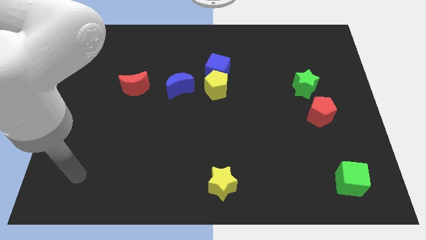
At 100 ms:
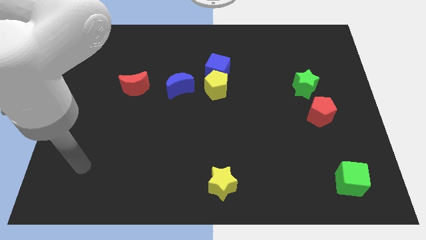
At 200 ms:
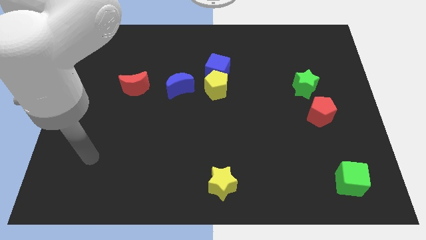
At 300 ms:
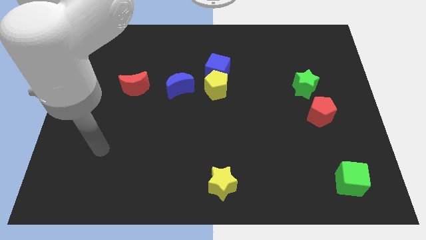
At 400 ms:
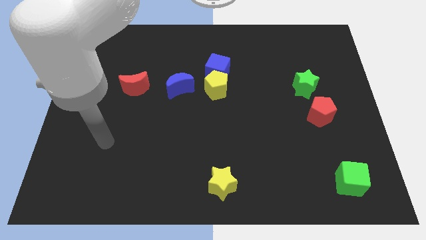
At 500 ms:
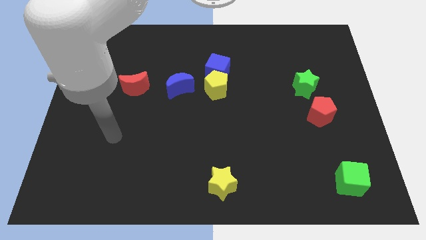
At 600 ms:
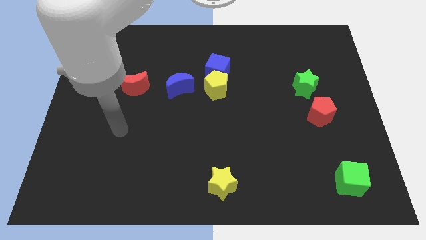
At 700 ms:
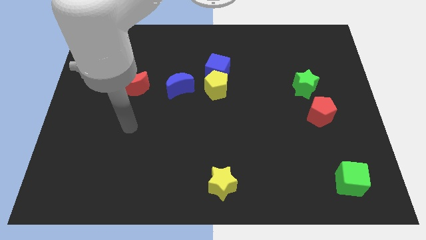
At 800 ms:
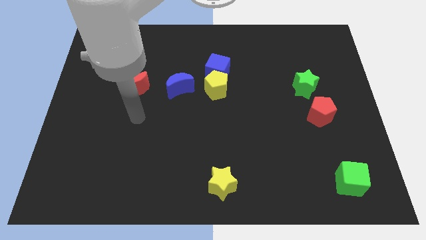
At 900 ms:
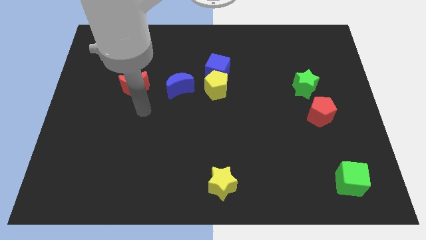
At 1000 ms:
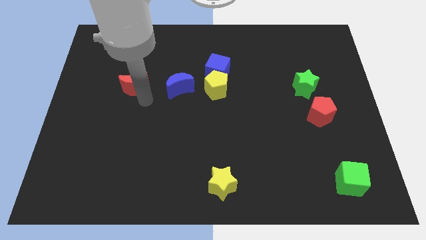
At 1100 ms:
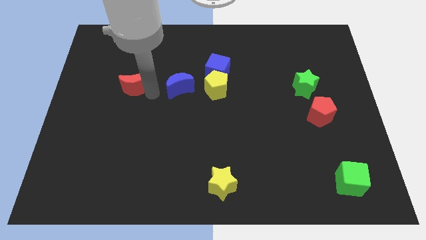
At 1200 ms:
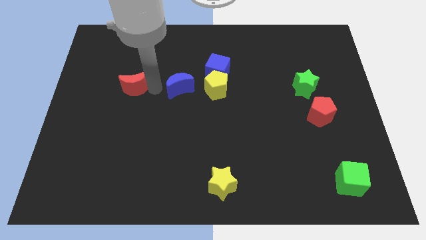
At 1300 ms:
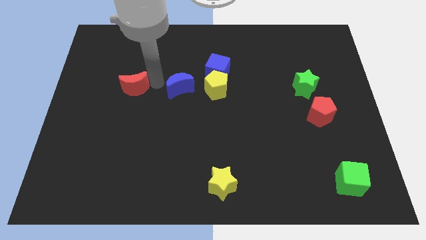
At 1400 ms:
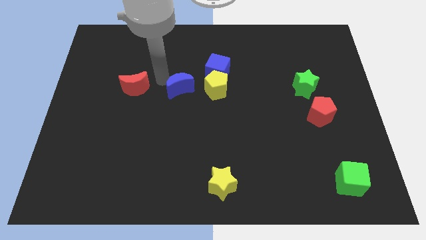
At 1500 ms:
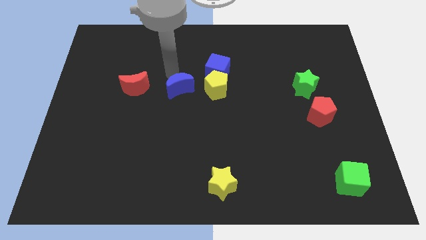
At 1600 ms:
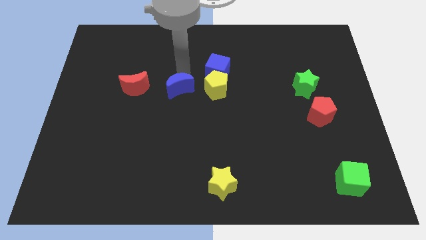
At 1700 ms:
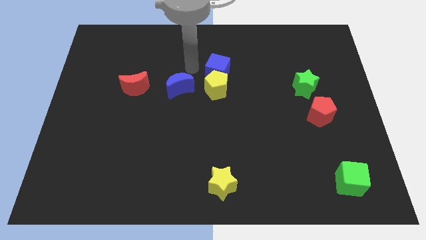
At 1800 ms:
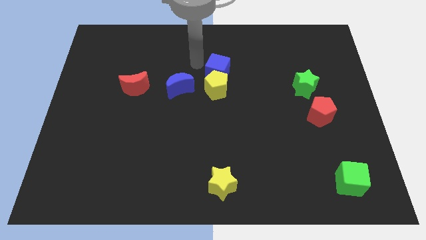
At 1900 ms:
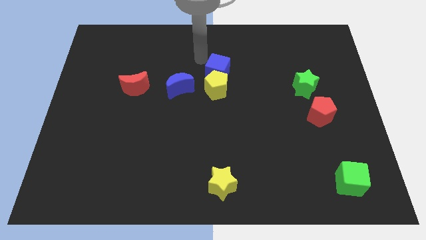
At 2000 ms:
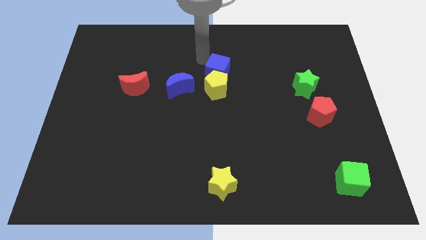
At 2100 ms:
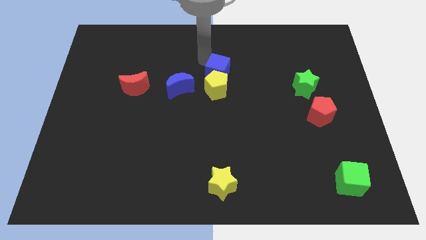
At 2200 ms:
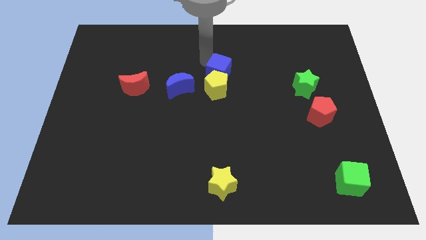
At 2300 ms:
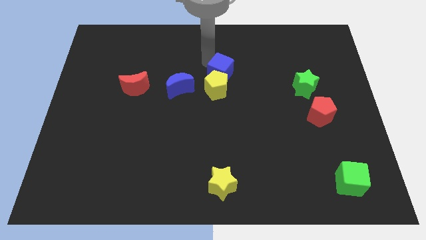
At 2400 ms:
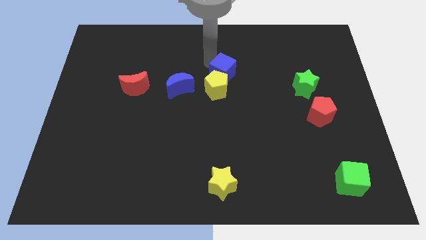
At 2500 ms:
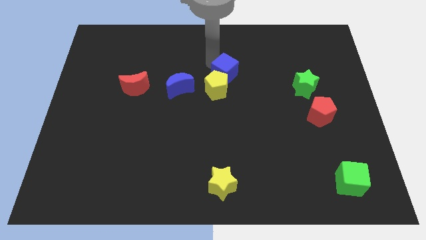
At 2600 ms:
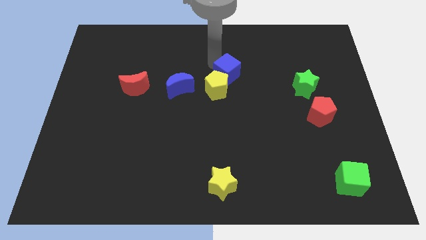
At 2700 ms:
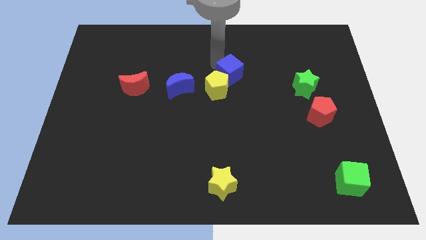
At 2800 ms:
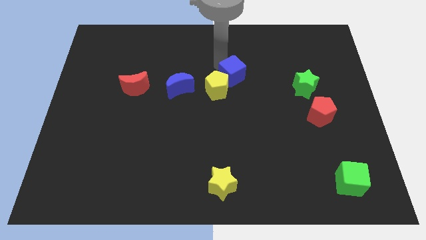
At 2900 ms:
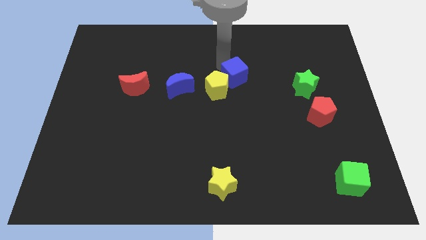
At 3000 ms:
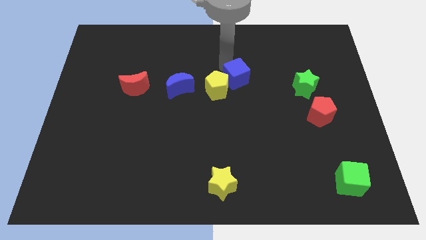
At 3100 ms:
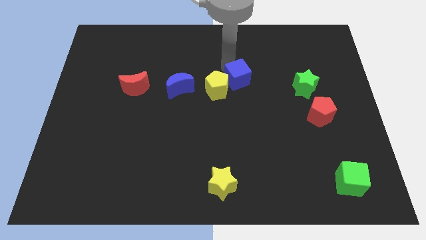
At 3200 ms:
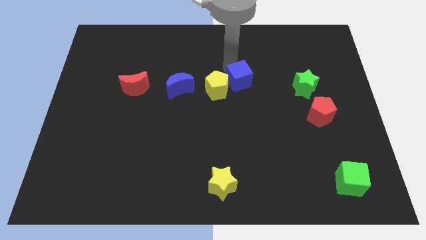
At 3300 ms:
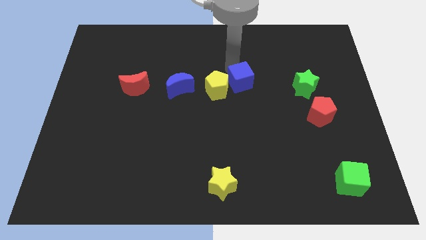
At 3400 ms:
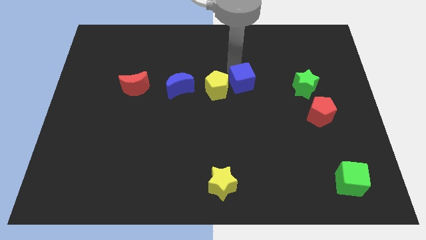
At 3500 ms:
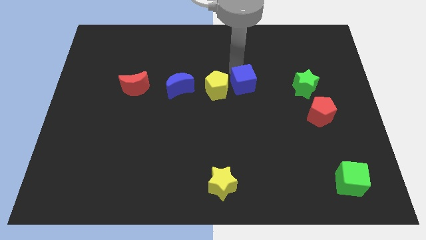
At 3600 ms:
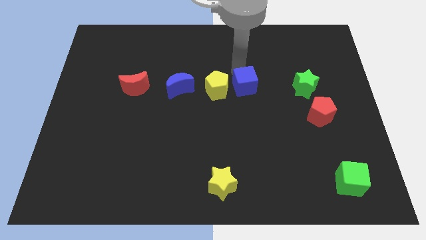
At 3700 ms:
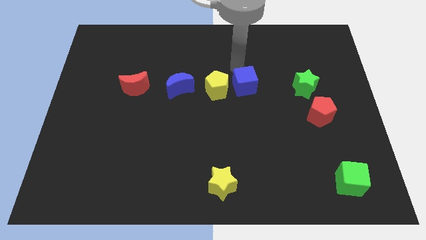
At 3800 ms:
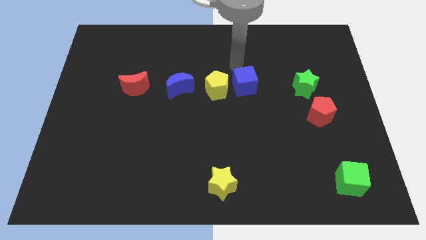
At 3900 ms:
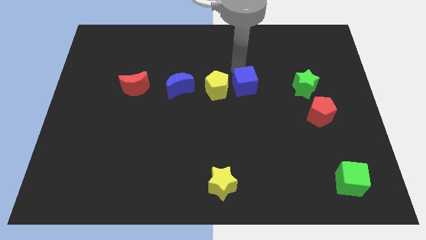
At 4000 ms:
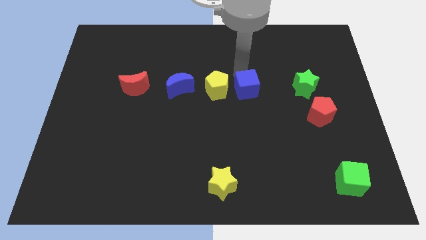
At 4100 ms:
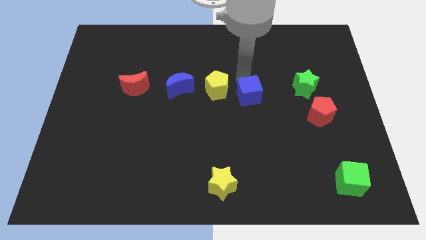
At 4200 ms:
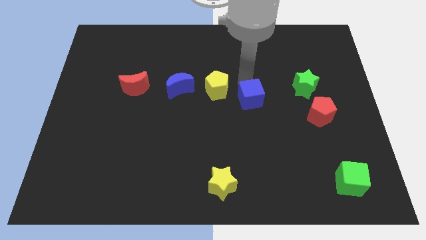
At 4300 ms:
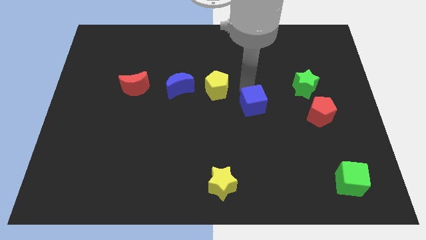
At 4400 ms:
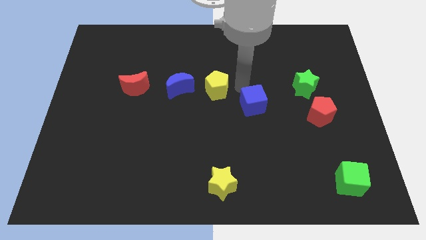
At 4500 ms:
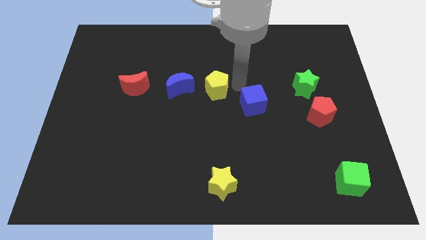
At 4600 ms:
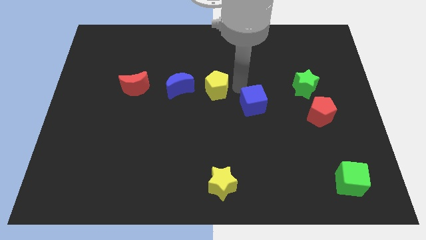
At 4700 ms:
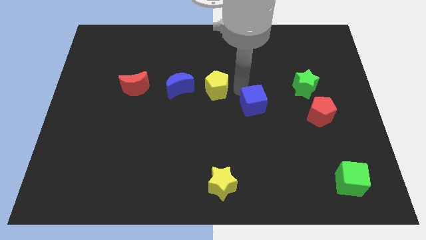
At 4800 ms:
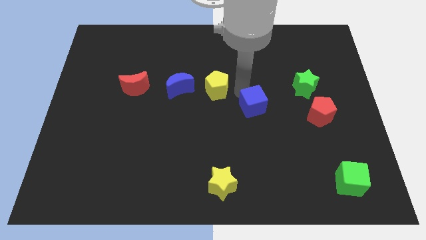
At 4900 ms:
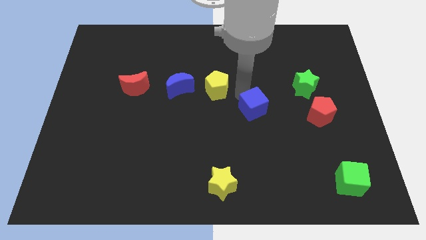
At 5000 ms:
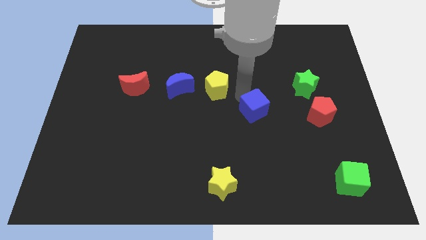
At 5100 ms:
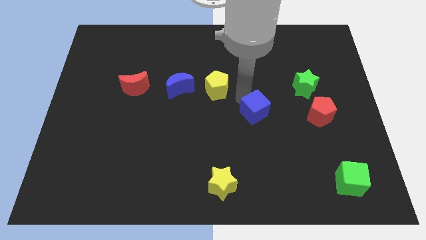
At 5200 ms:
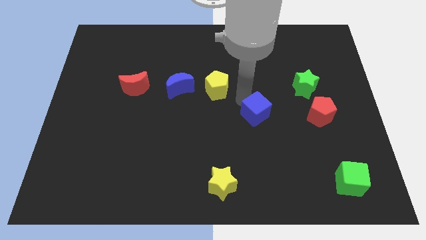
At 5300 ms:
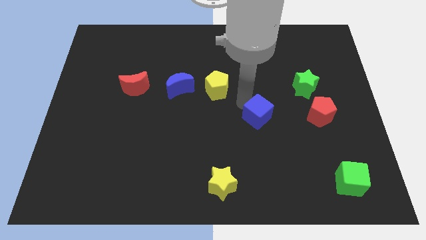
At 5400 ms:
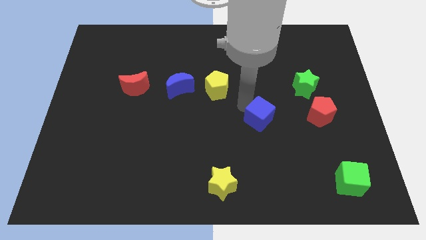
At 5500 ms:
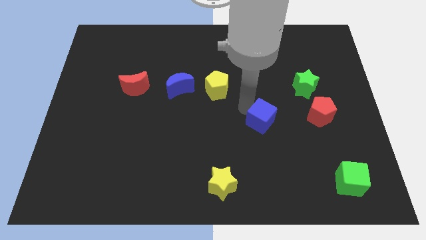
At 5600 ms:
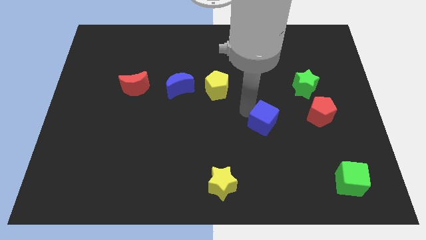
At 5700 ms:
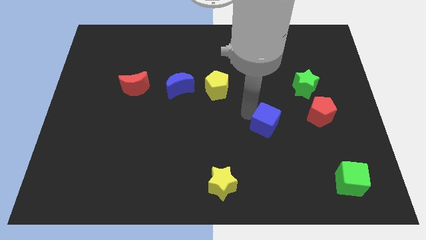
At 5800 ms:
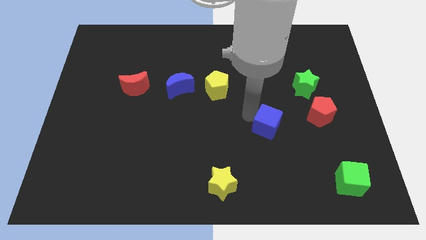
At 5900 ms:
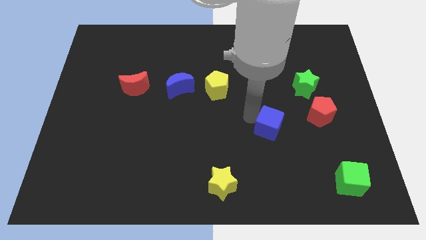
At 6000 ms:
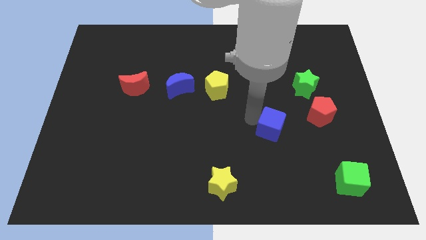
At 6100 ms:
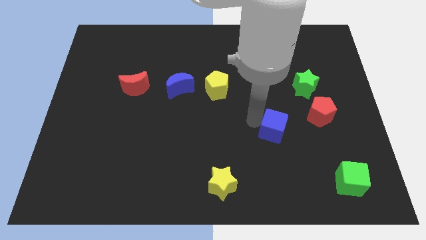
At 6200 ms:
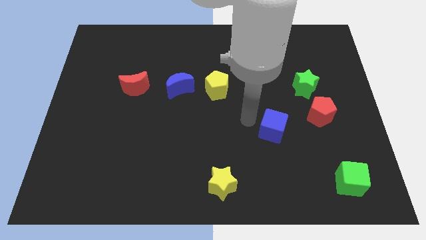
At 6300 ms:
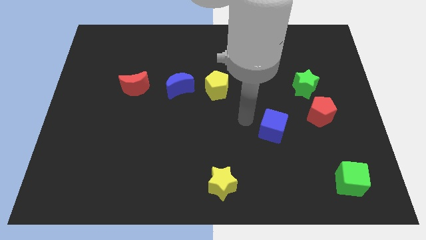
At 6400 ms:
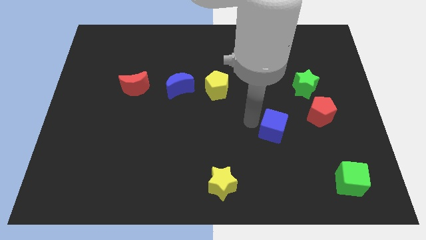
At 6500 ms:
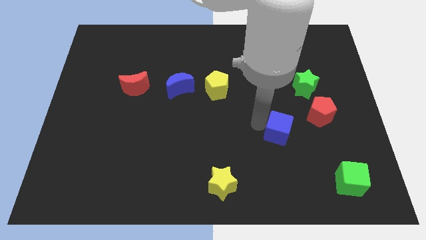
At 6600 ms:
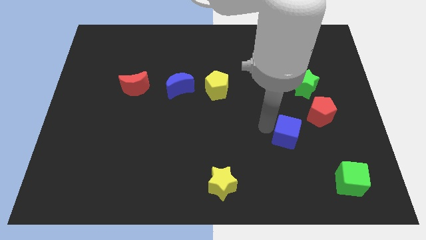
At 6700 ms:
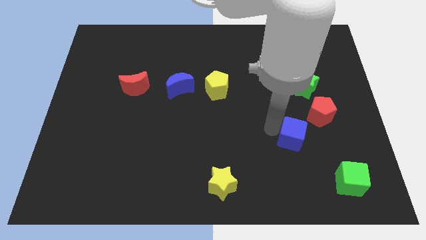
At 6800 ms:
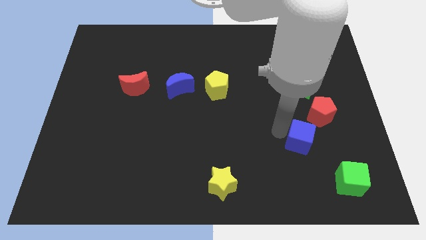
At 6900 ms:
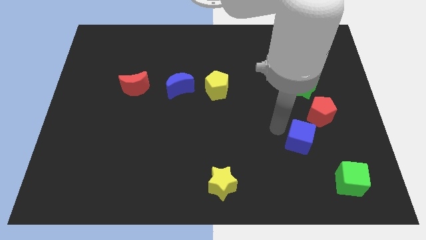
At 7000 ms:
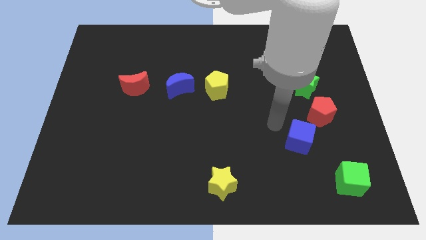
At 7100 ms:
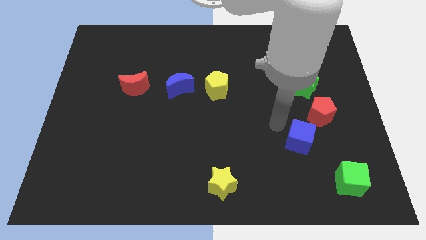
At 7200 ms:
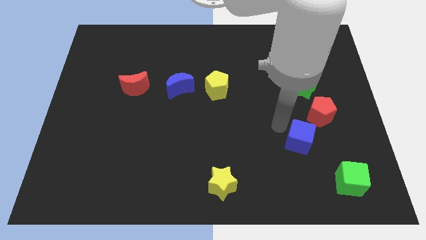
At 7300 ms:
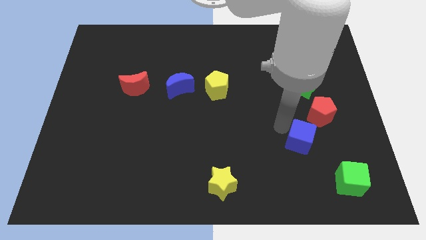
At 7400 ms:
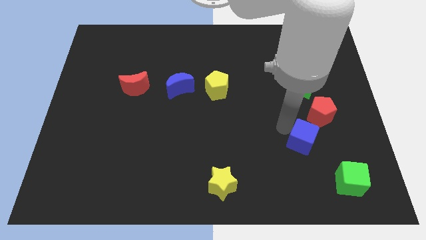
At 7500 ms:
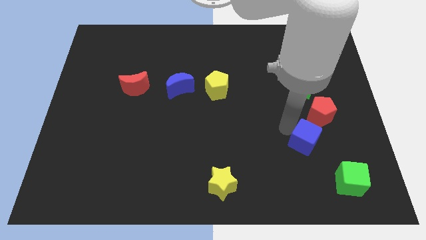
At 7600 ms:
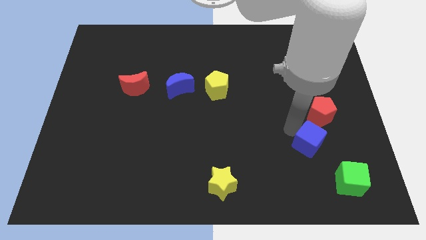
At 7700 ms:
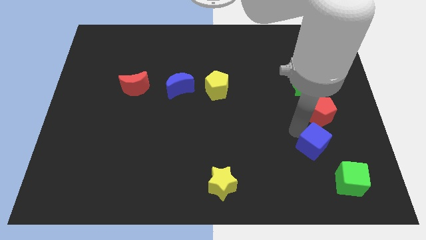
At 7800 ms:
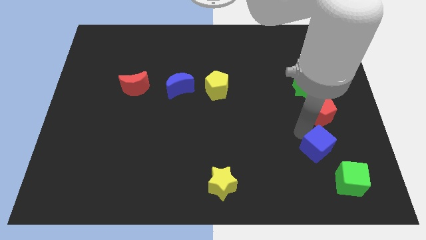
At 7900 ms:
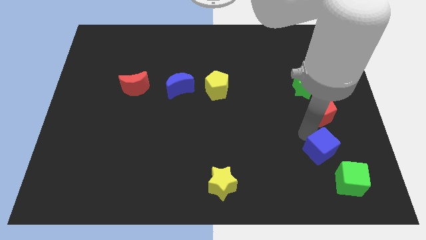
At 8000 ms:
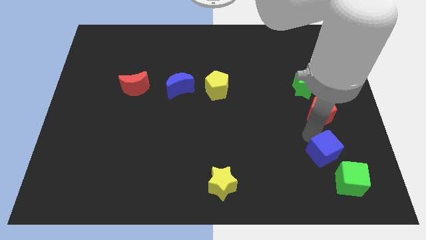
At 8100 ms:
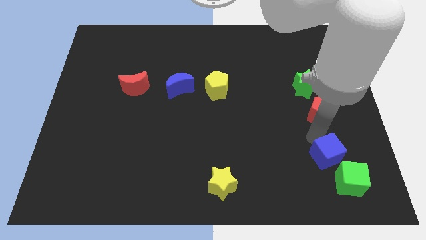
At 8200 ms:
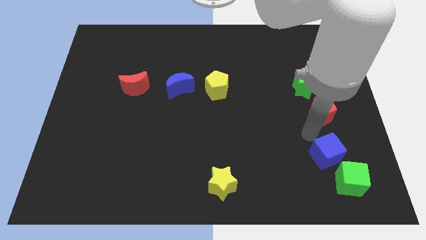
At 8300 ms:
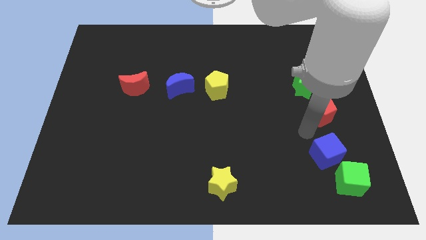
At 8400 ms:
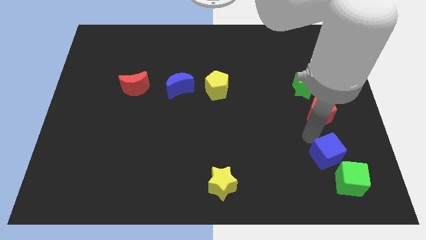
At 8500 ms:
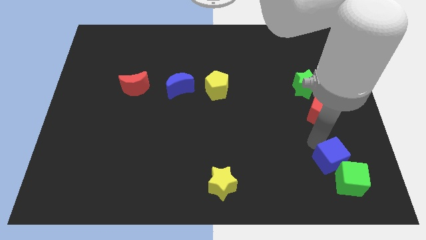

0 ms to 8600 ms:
put the blue cube towards the green cube
